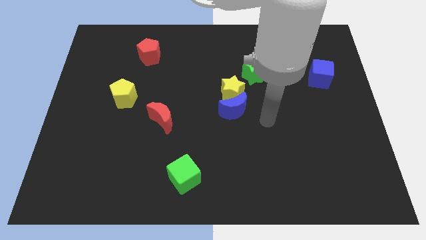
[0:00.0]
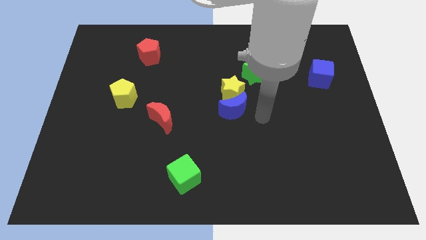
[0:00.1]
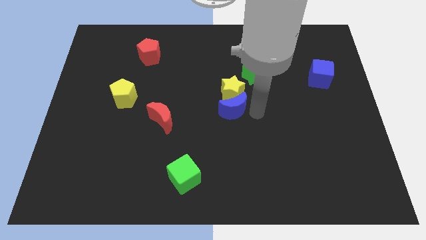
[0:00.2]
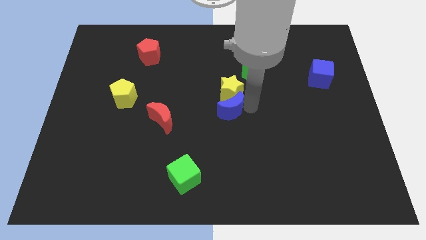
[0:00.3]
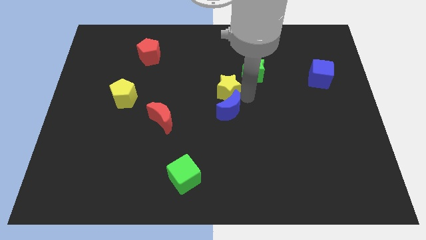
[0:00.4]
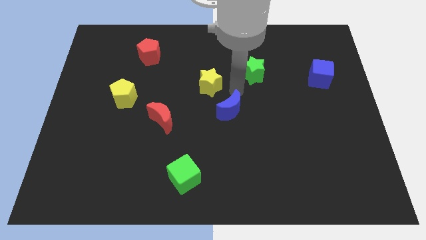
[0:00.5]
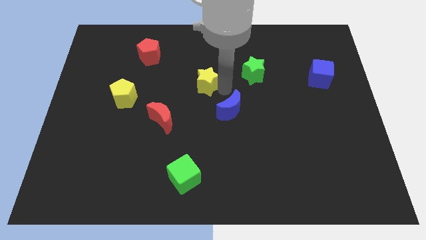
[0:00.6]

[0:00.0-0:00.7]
pull the blue moon apart from the yellow star

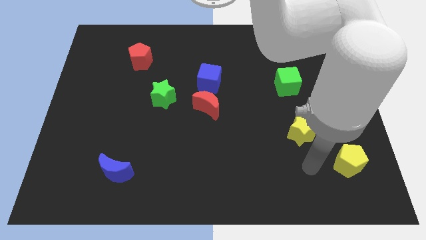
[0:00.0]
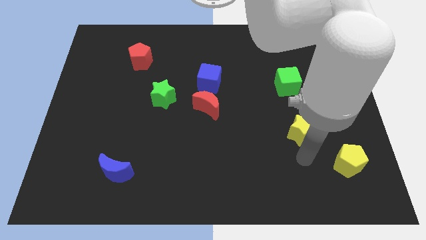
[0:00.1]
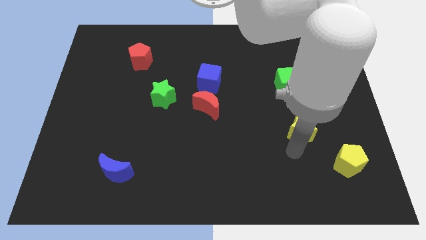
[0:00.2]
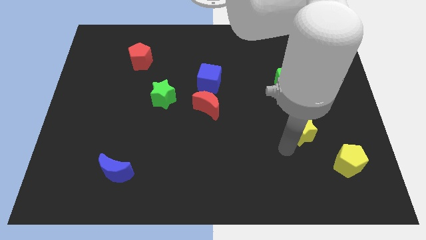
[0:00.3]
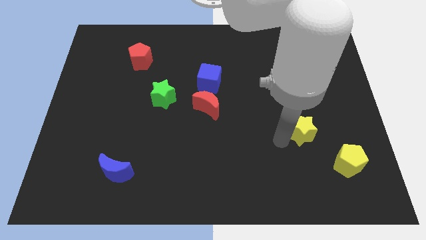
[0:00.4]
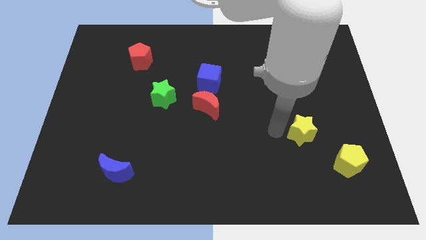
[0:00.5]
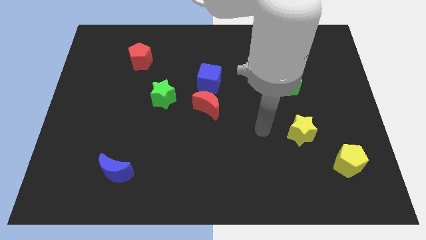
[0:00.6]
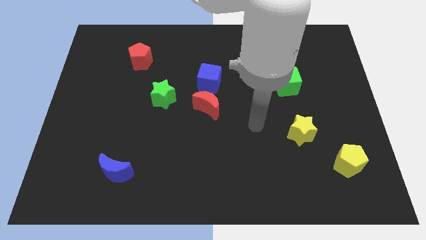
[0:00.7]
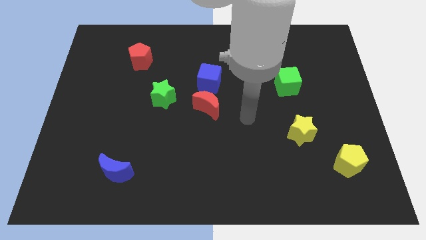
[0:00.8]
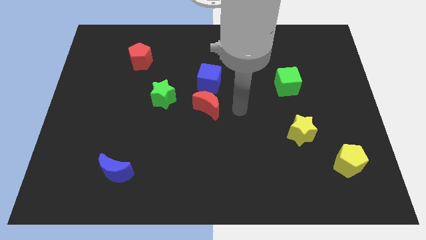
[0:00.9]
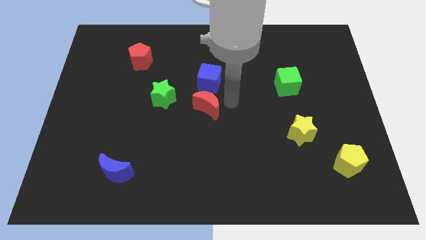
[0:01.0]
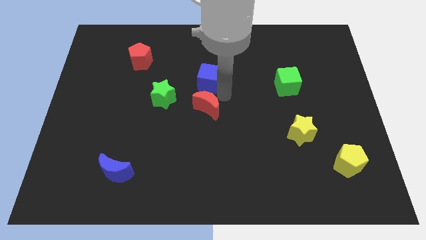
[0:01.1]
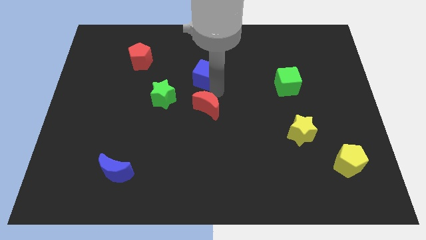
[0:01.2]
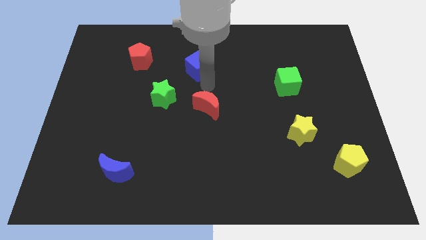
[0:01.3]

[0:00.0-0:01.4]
pull the red moon apart from the blue cube

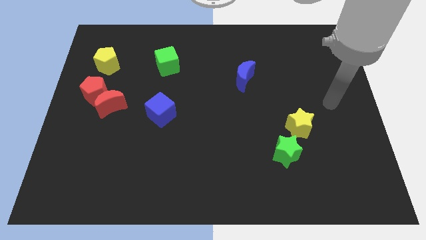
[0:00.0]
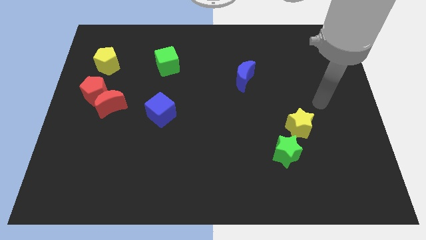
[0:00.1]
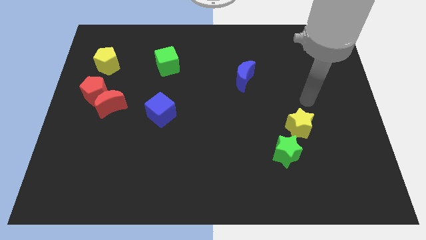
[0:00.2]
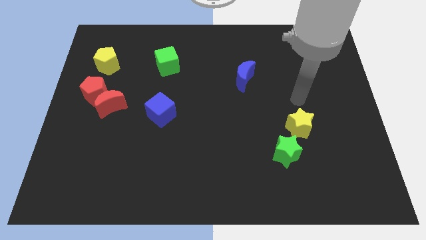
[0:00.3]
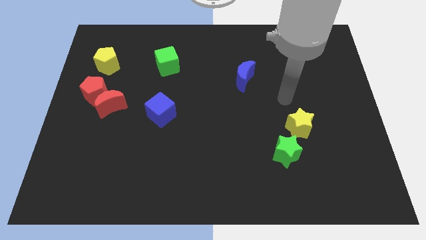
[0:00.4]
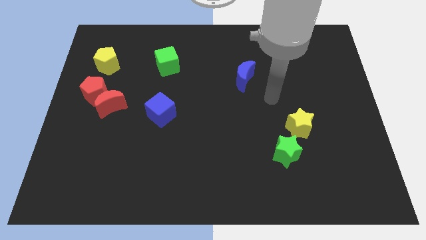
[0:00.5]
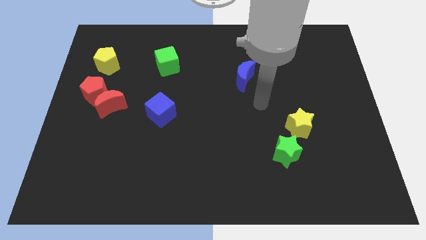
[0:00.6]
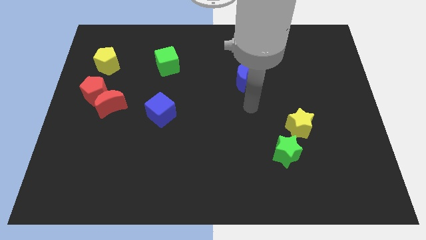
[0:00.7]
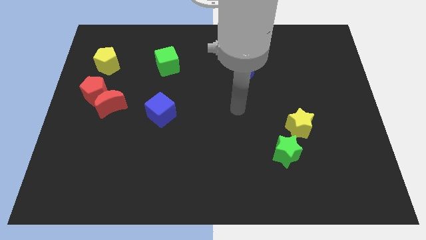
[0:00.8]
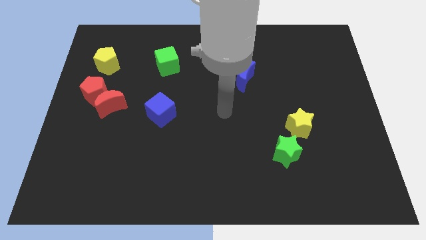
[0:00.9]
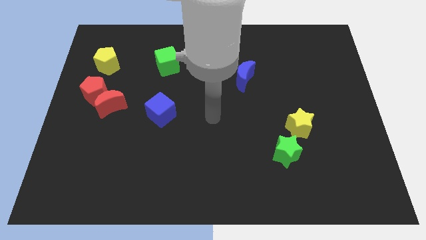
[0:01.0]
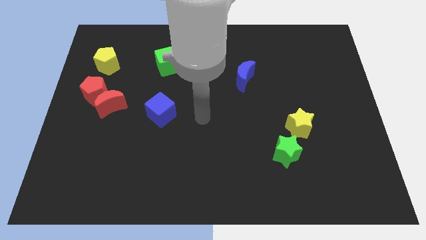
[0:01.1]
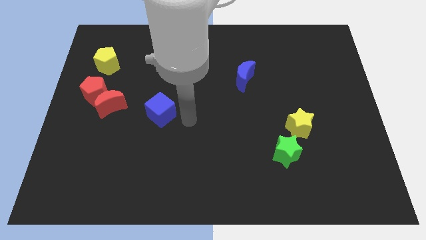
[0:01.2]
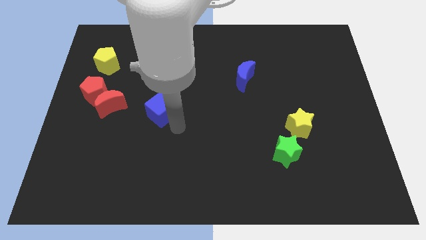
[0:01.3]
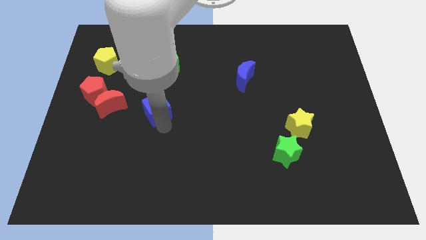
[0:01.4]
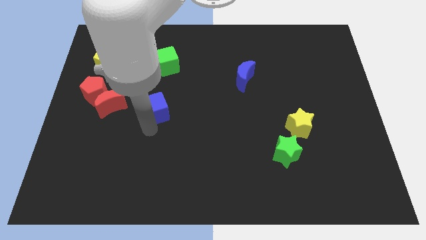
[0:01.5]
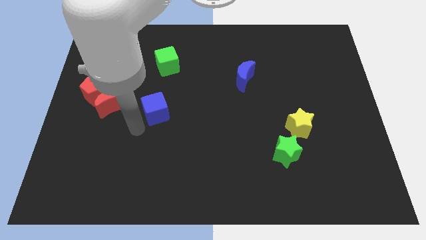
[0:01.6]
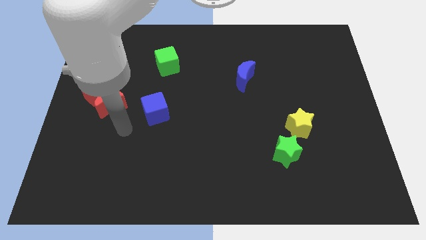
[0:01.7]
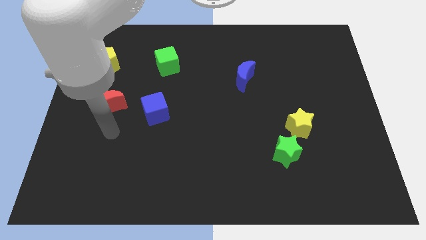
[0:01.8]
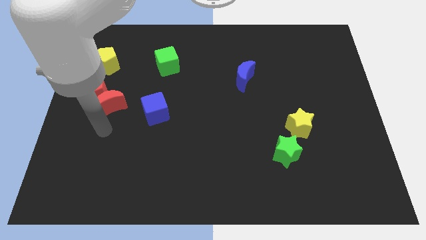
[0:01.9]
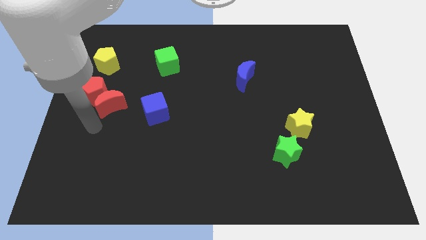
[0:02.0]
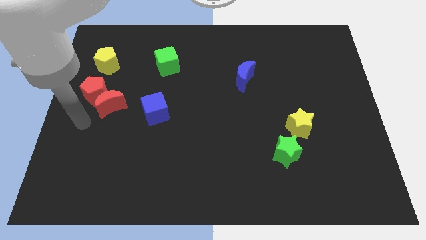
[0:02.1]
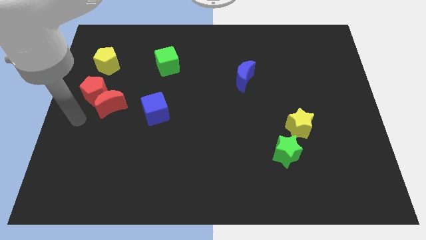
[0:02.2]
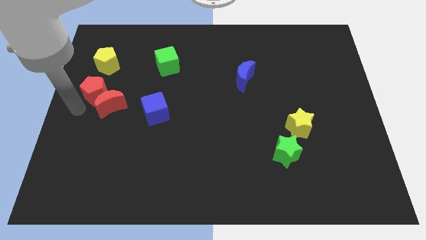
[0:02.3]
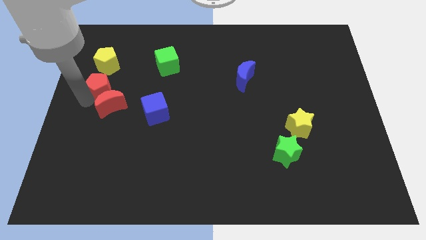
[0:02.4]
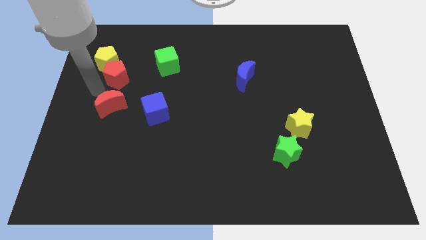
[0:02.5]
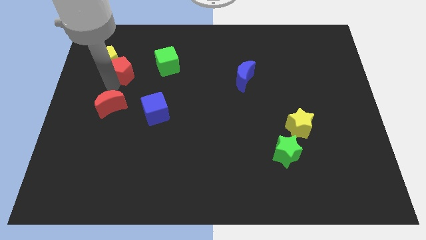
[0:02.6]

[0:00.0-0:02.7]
pull the red moon apart from the red pentagon

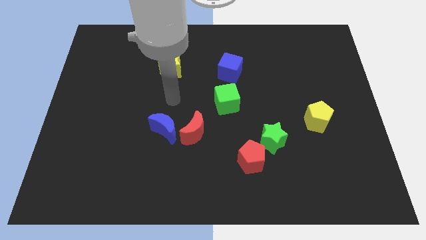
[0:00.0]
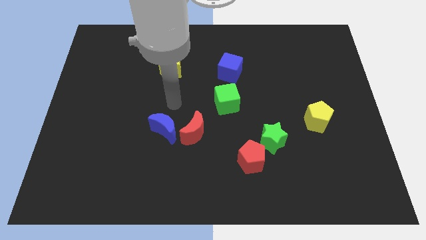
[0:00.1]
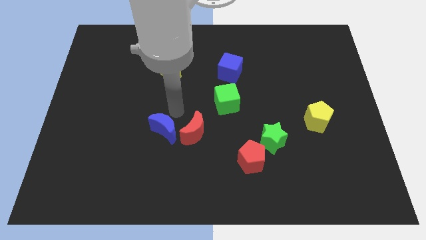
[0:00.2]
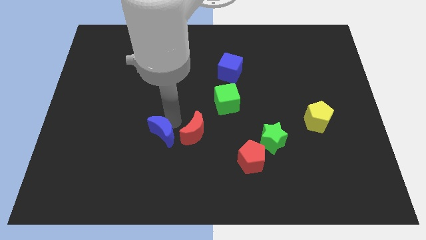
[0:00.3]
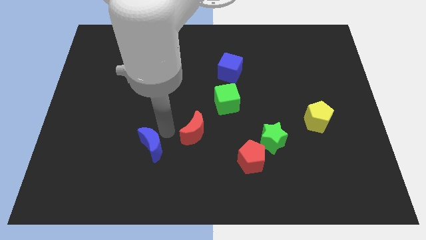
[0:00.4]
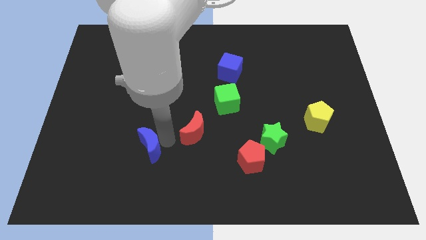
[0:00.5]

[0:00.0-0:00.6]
move the red moon away from the blue moon

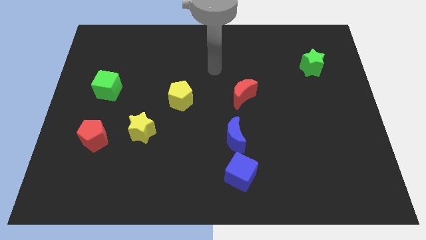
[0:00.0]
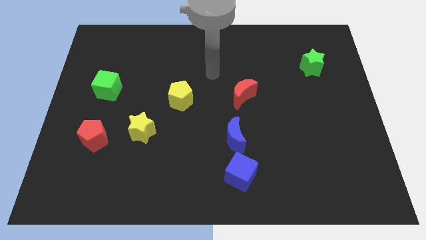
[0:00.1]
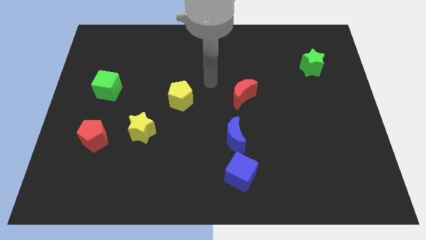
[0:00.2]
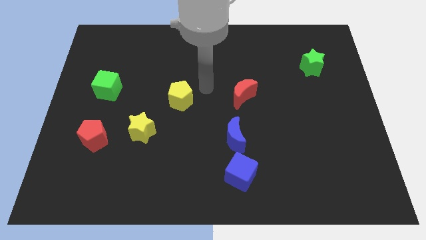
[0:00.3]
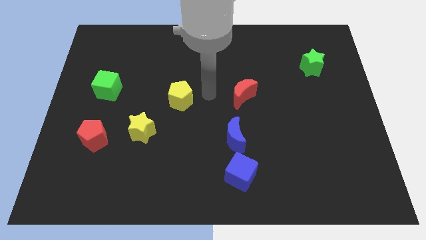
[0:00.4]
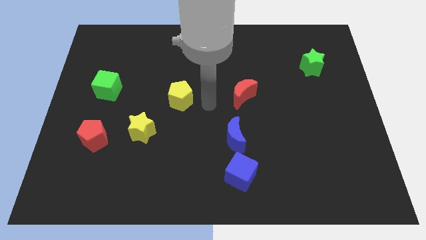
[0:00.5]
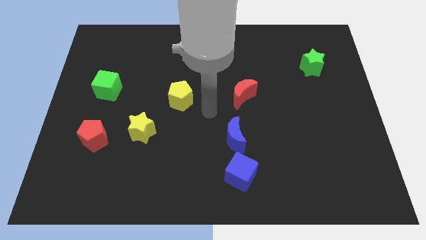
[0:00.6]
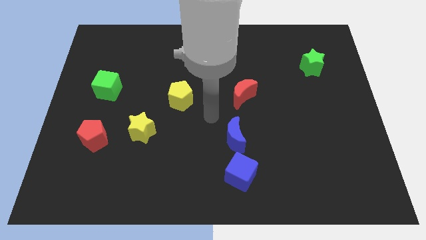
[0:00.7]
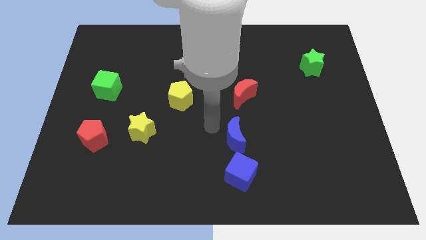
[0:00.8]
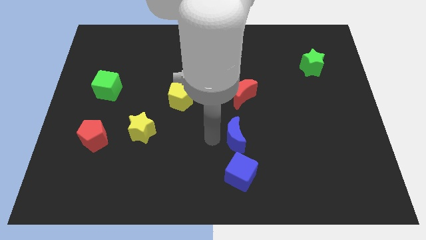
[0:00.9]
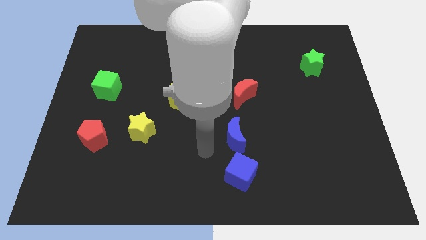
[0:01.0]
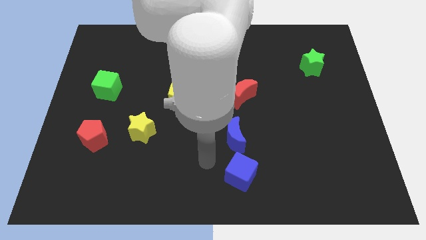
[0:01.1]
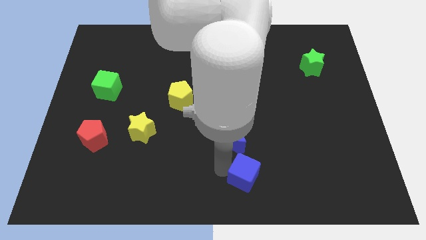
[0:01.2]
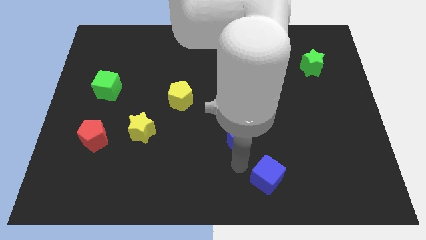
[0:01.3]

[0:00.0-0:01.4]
move the blue moon away from the blue cube

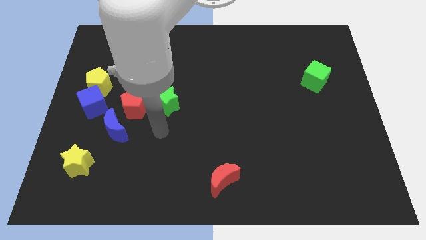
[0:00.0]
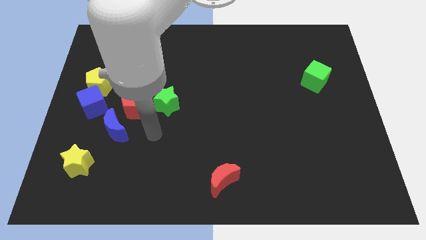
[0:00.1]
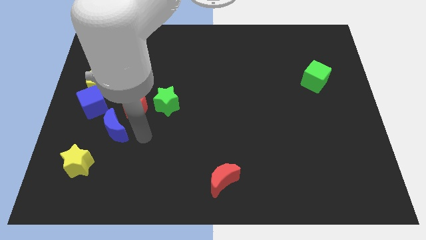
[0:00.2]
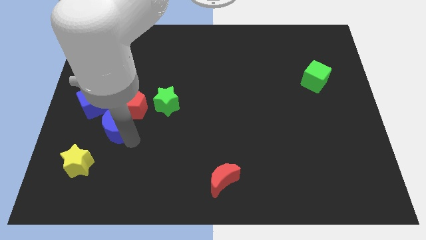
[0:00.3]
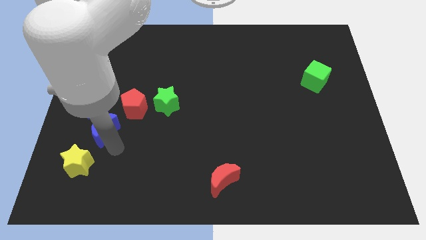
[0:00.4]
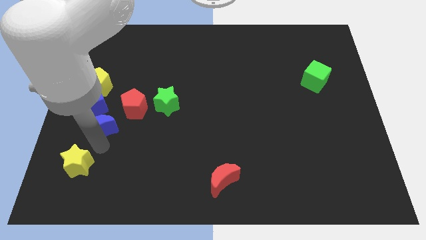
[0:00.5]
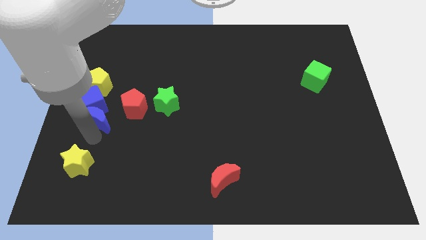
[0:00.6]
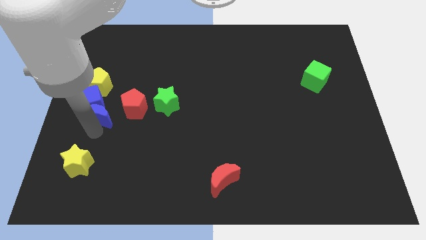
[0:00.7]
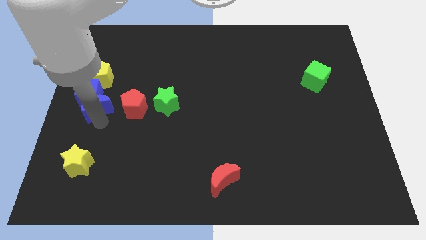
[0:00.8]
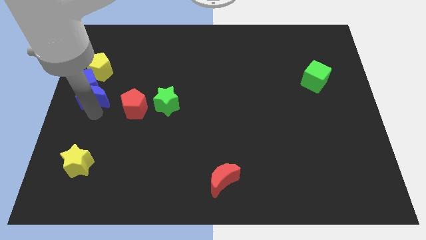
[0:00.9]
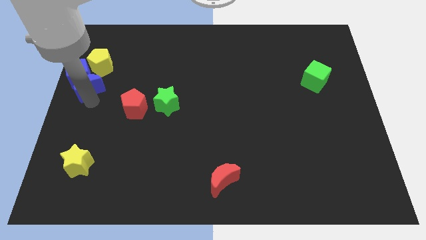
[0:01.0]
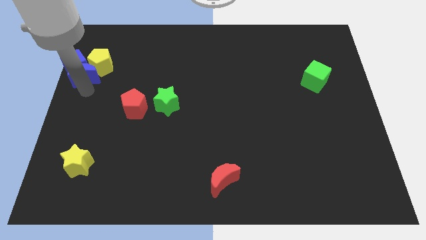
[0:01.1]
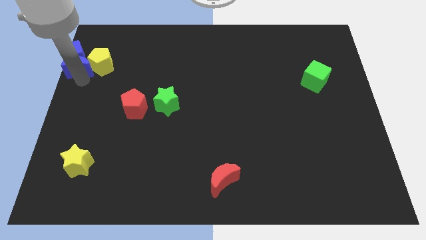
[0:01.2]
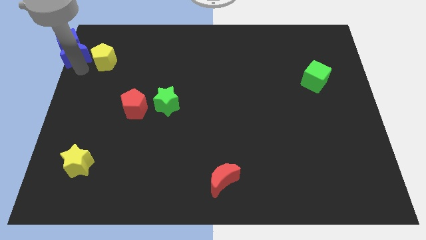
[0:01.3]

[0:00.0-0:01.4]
pull the yellow pentagon apart from the blue cube

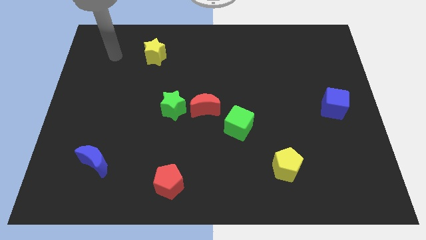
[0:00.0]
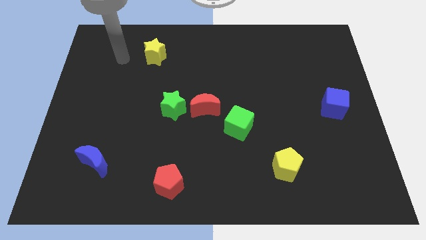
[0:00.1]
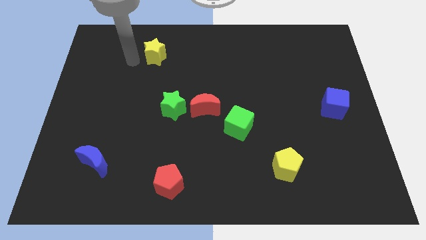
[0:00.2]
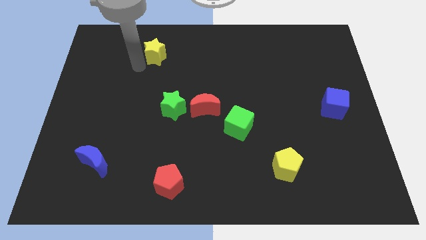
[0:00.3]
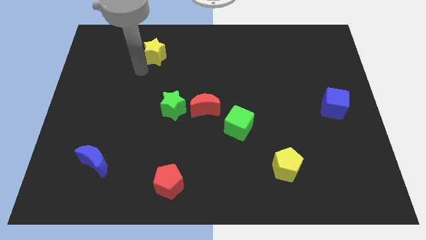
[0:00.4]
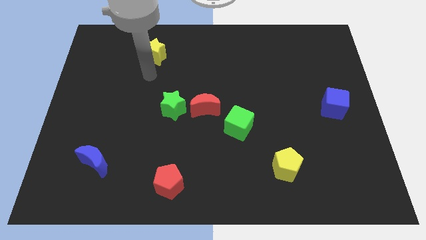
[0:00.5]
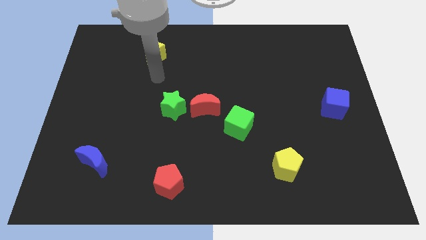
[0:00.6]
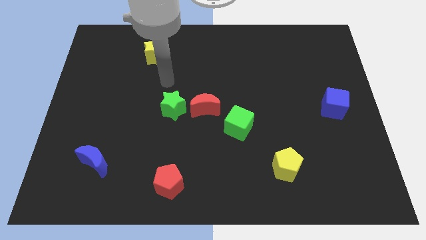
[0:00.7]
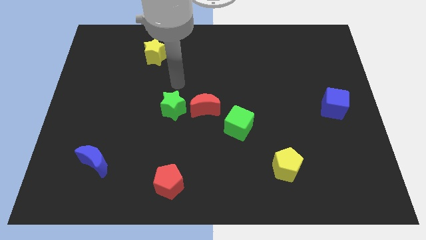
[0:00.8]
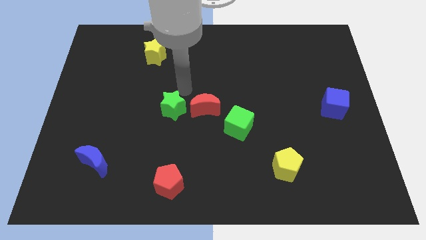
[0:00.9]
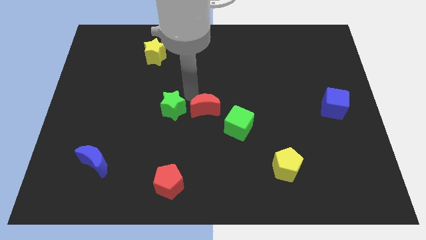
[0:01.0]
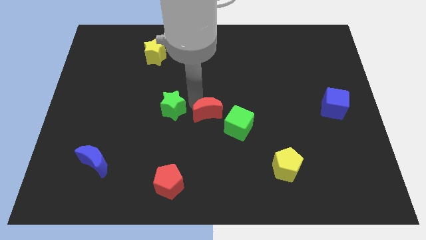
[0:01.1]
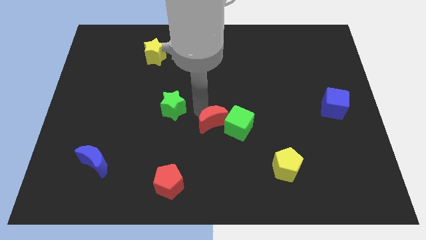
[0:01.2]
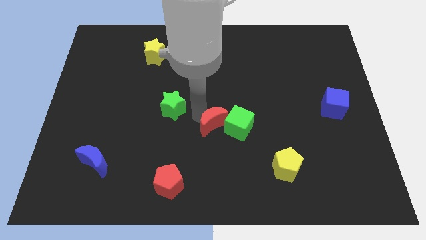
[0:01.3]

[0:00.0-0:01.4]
move the green star away from the red moon
